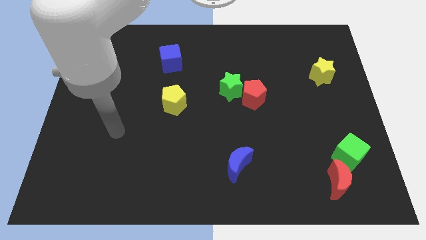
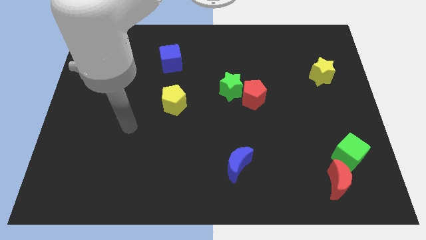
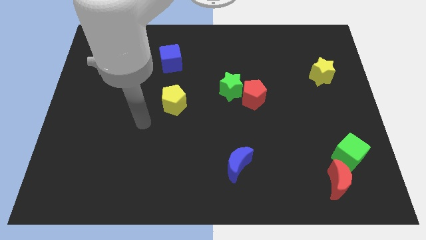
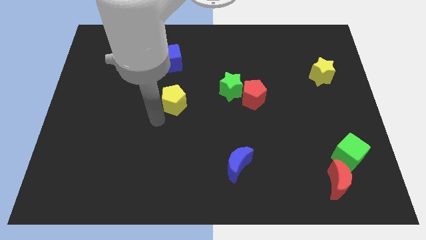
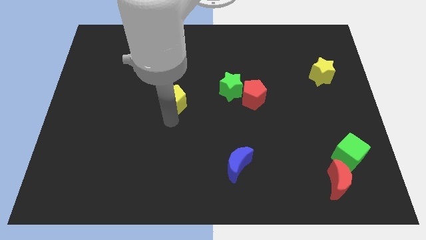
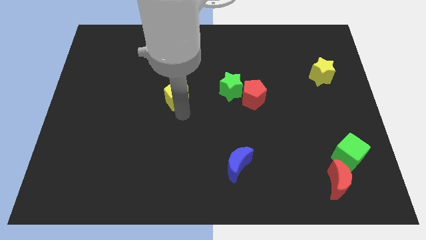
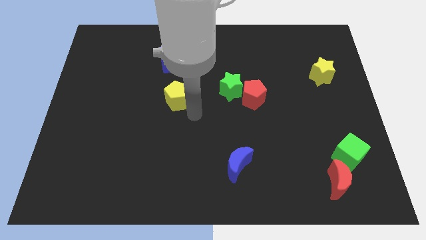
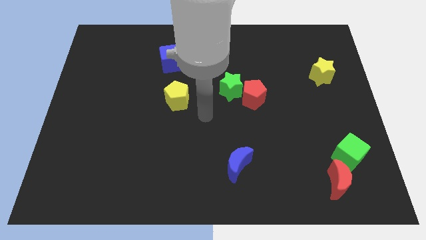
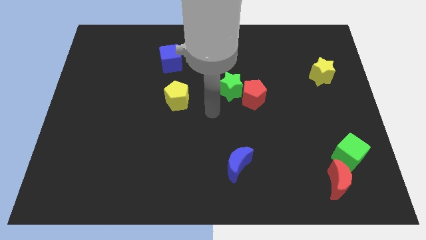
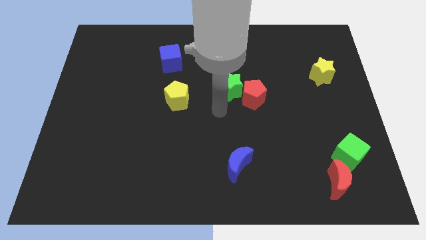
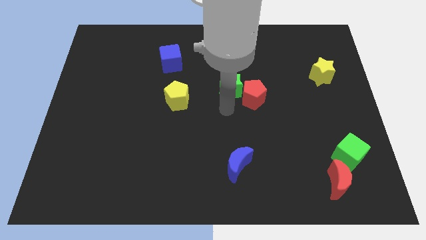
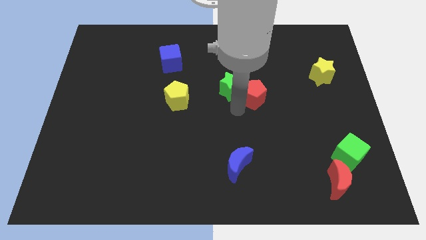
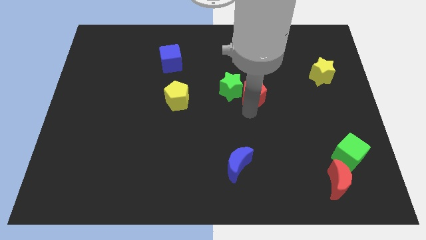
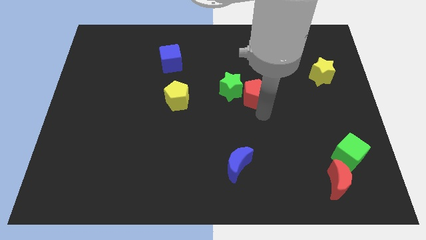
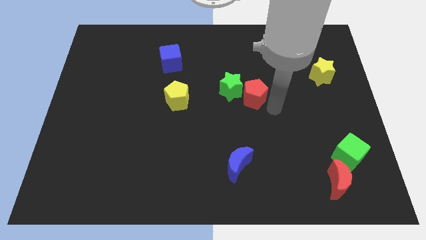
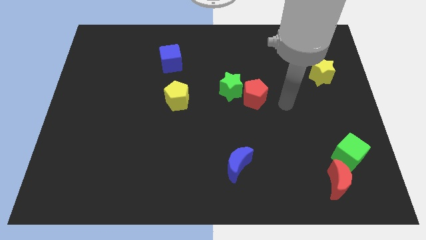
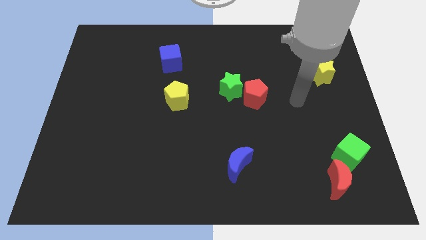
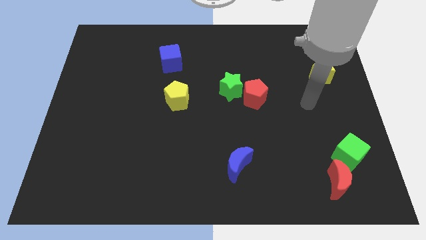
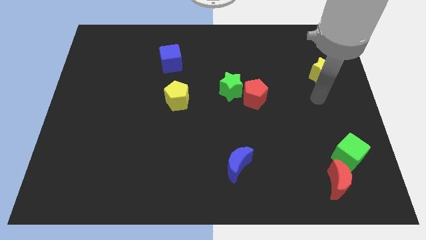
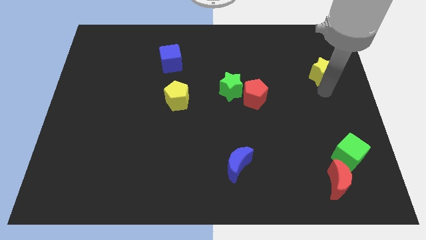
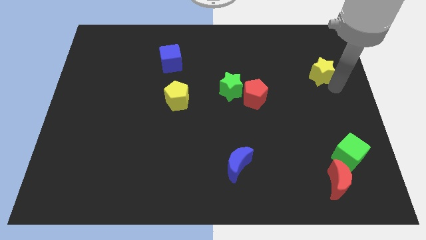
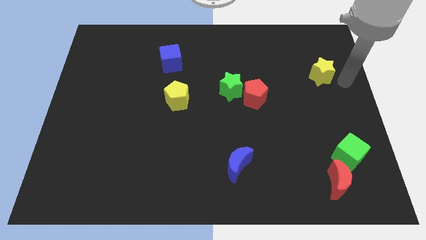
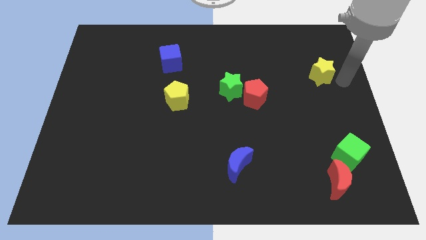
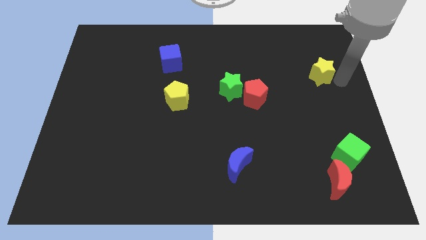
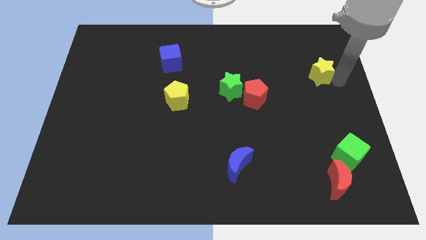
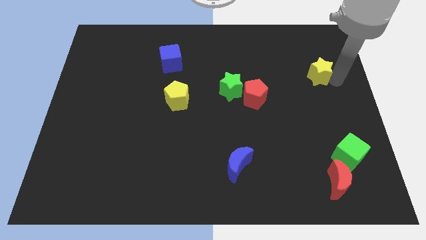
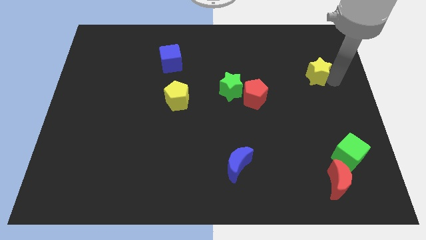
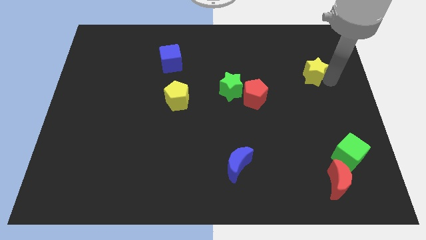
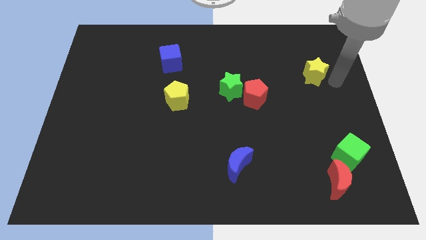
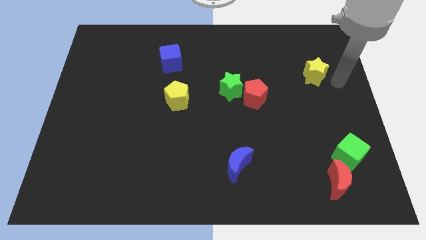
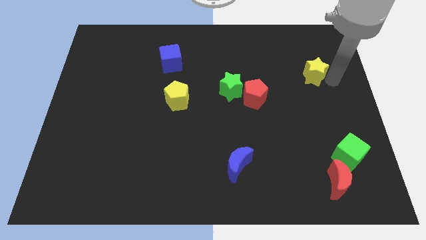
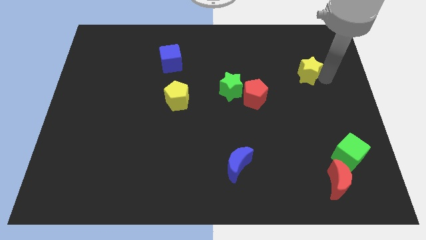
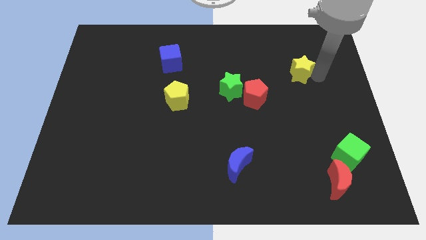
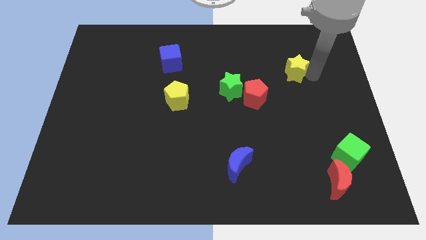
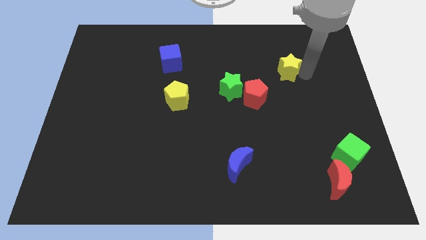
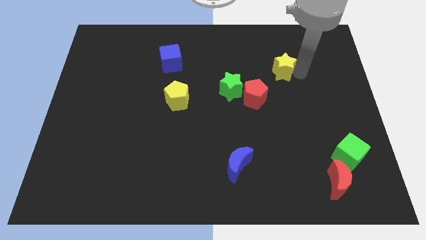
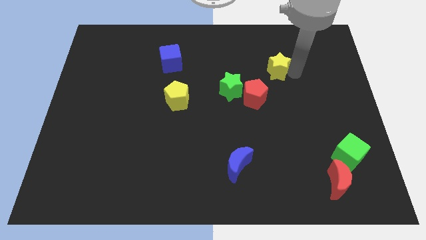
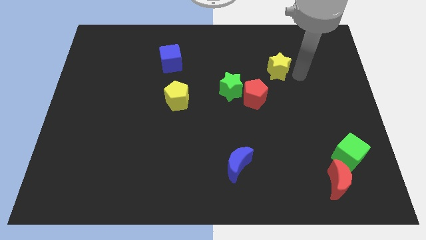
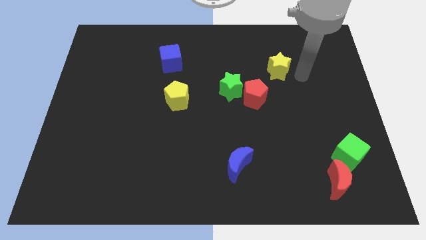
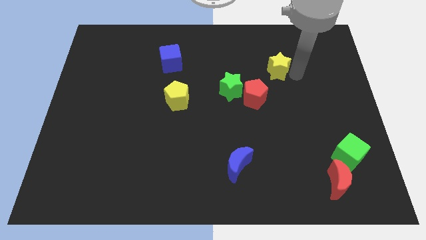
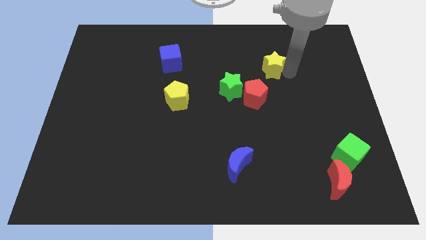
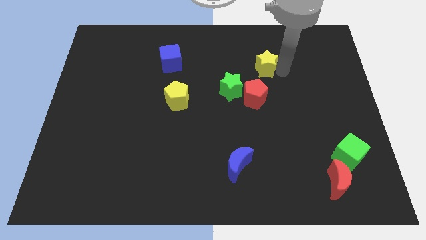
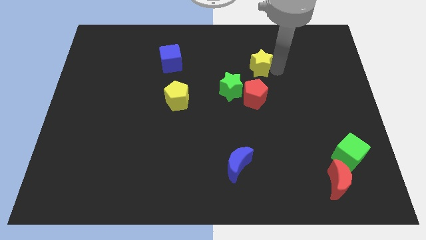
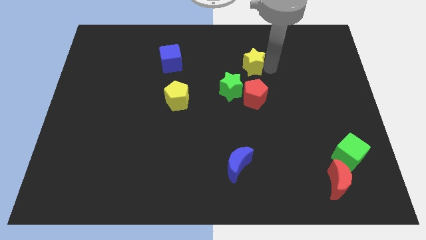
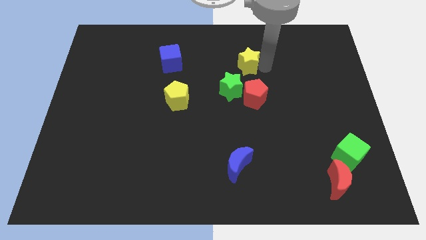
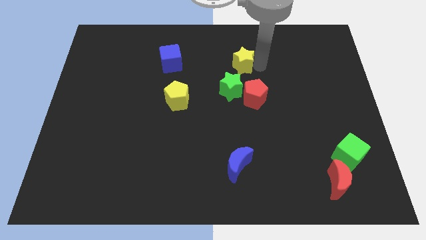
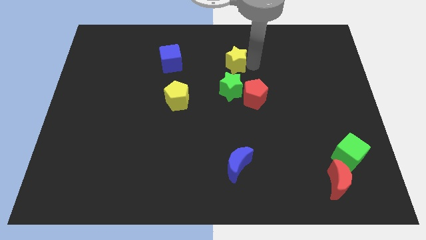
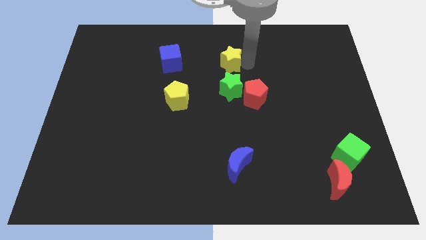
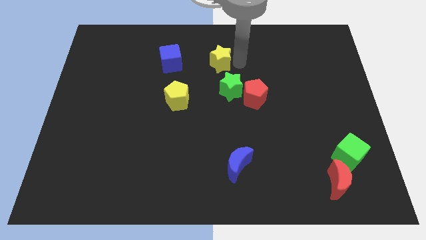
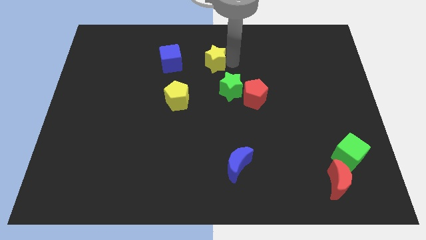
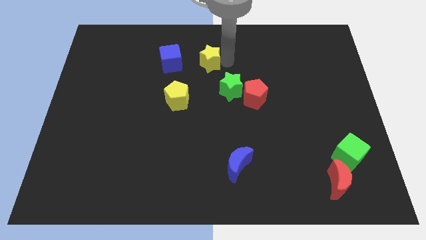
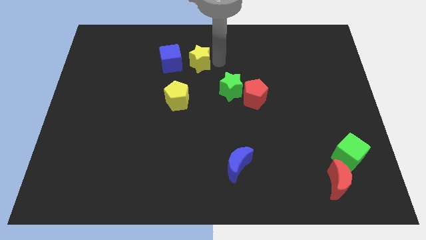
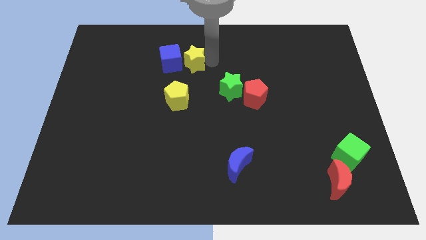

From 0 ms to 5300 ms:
move the yellow star to the blue cube

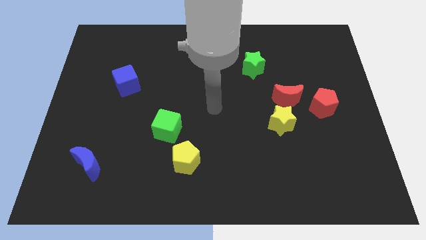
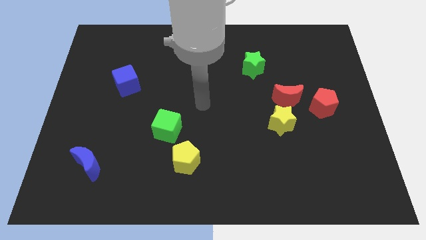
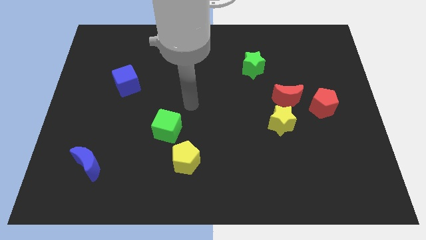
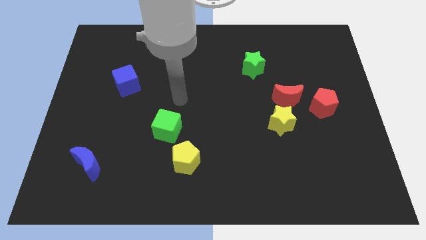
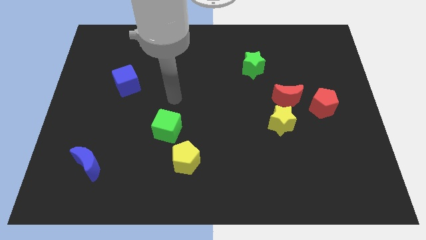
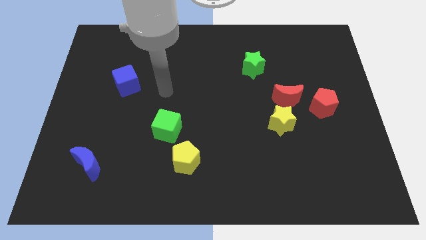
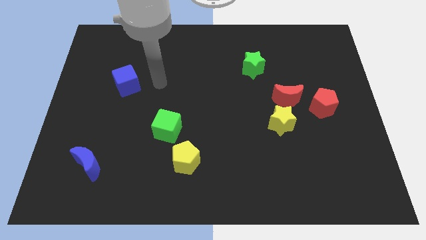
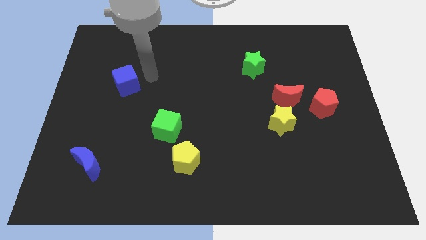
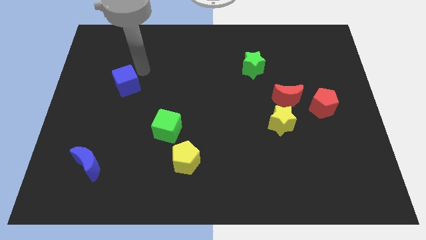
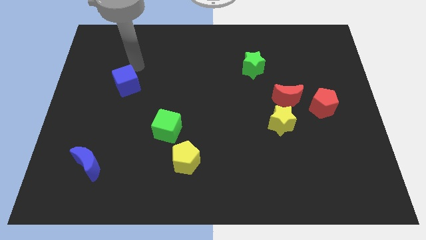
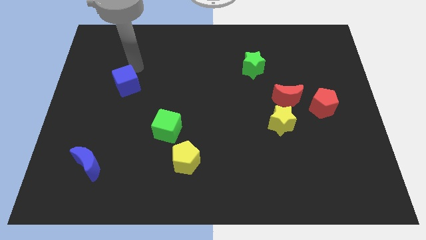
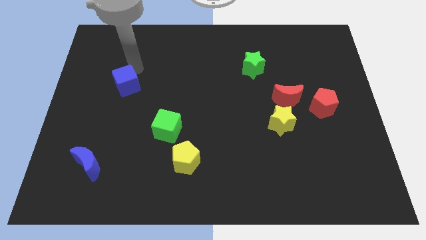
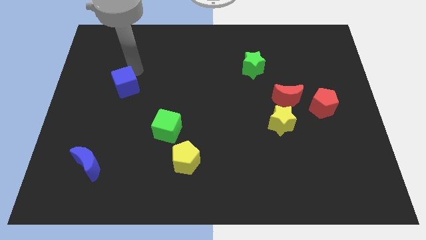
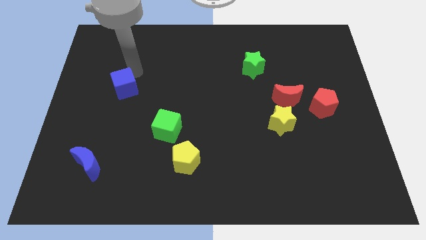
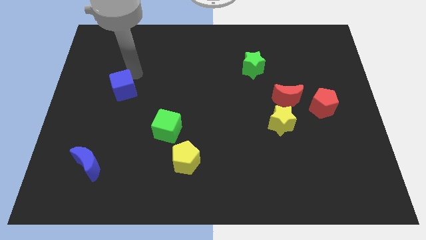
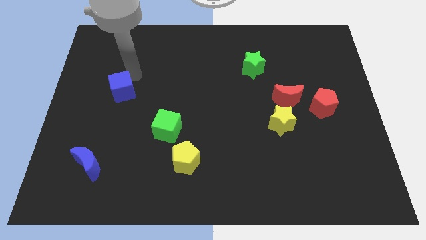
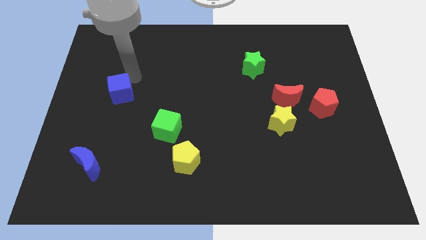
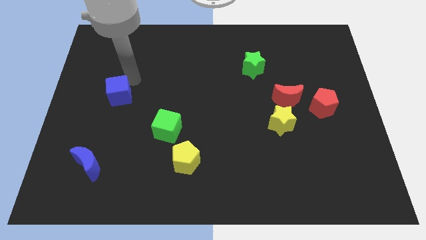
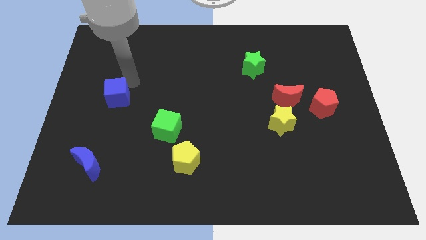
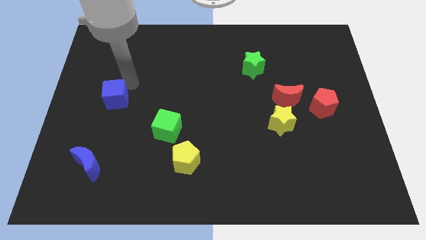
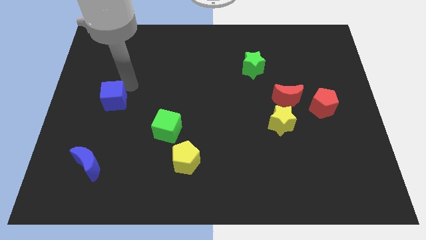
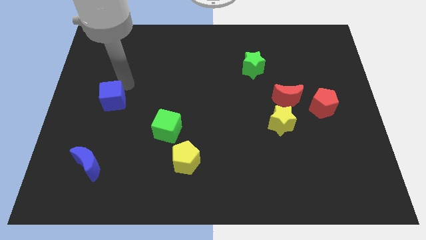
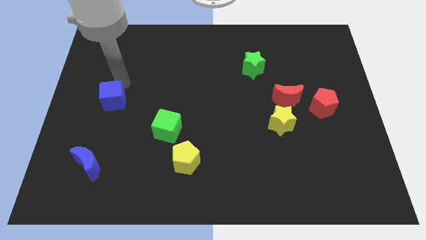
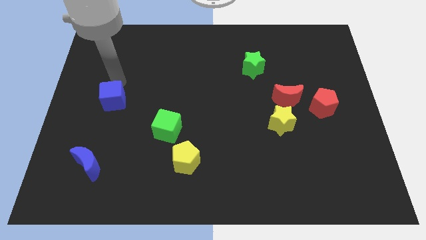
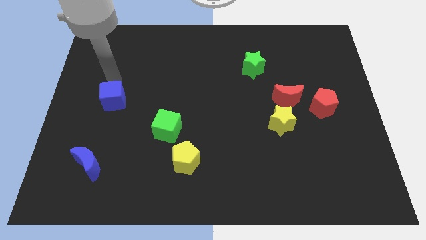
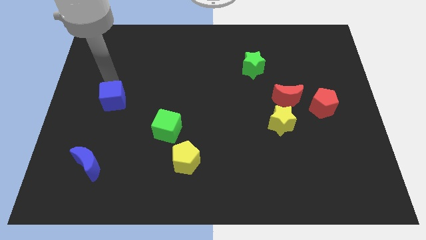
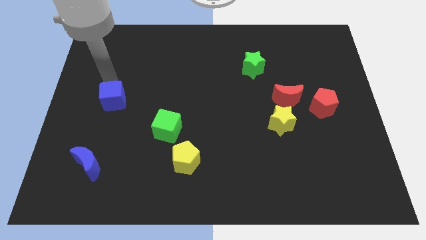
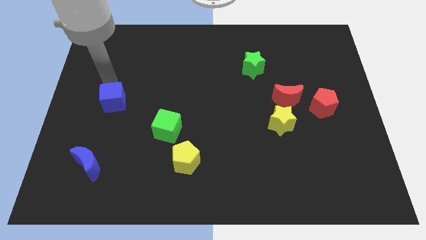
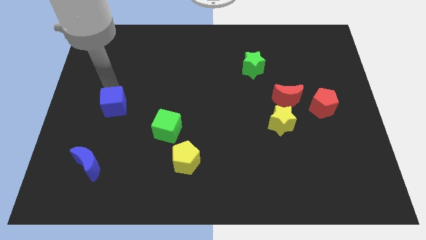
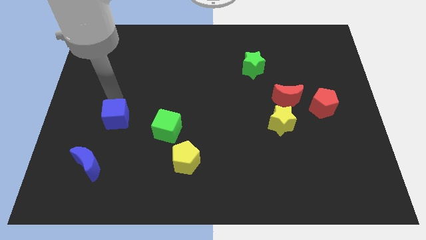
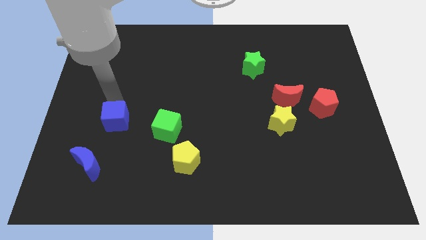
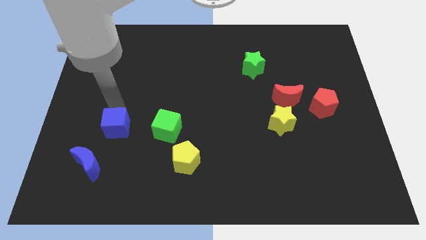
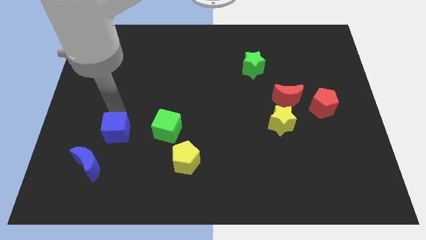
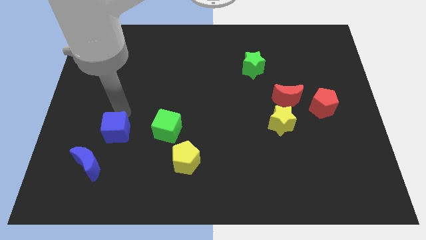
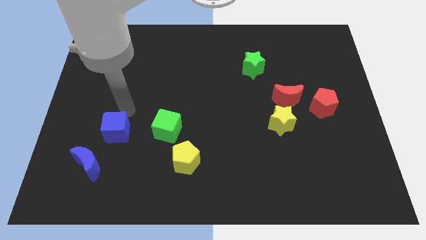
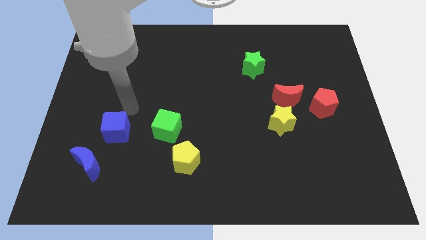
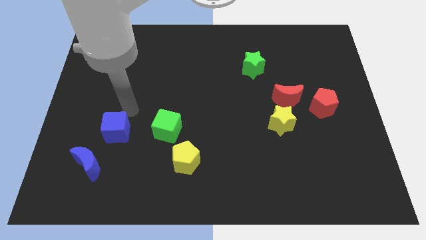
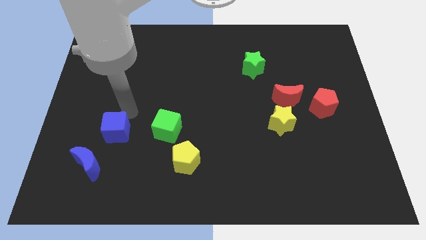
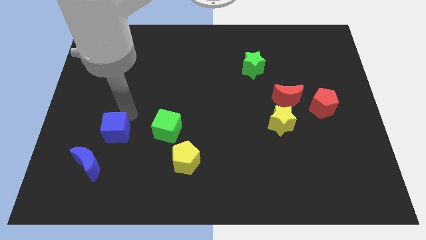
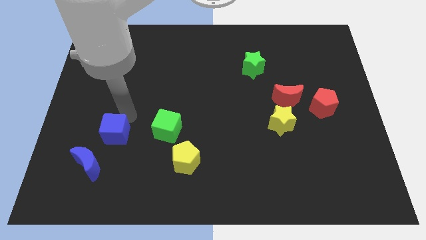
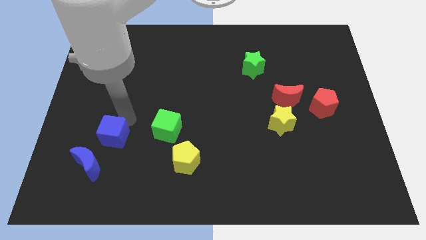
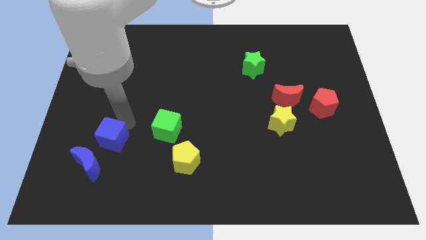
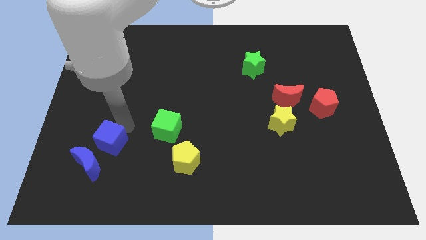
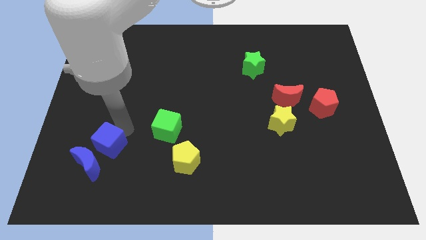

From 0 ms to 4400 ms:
slide the blue cube next to the blue moon
